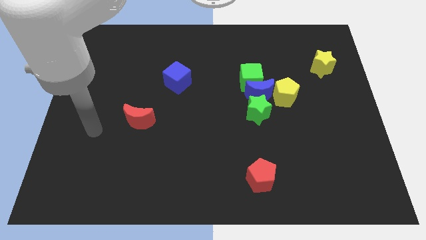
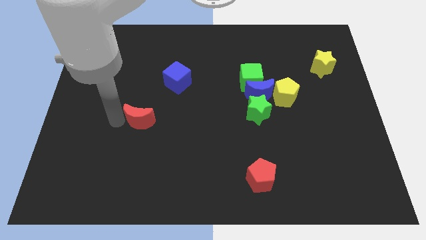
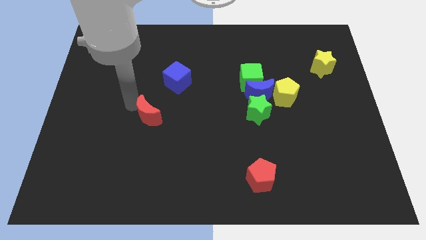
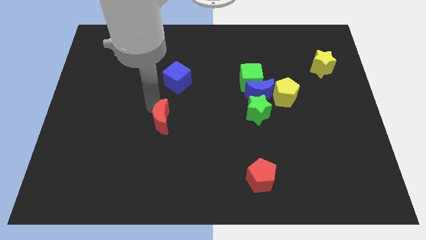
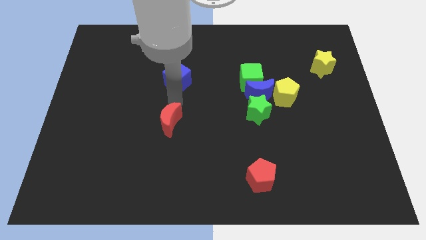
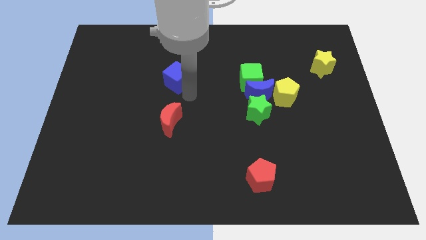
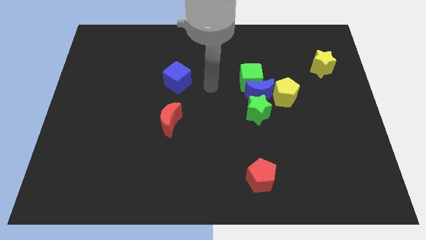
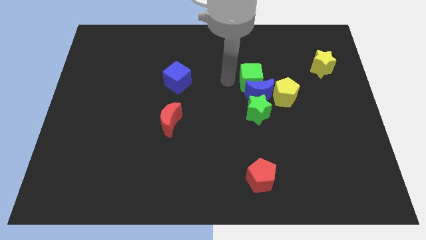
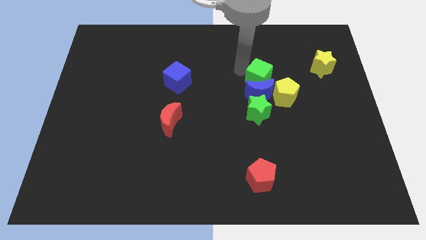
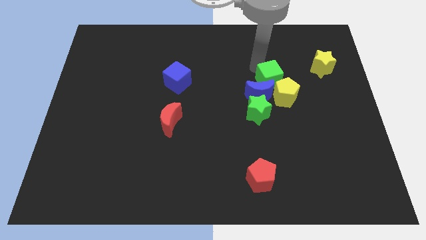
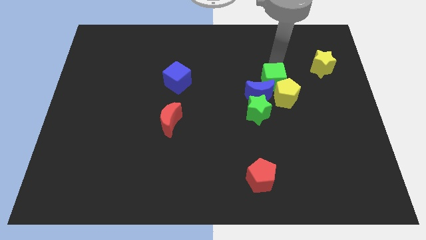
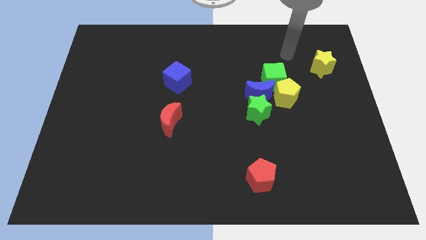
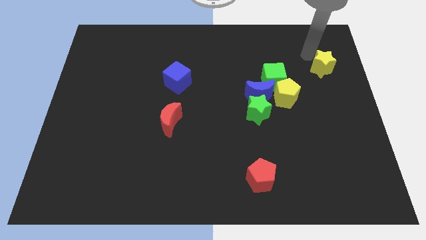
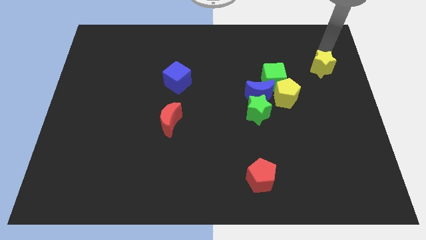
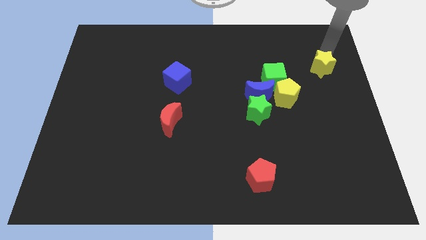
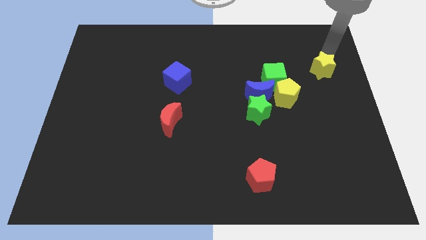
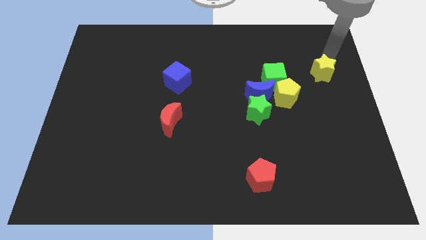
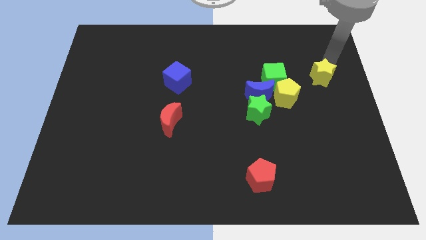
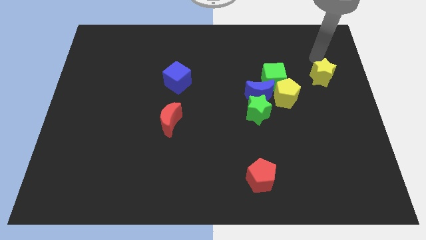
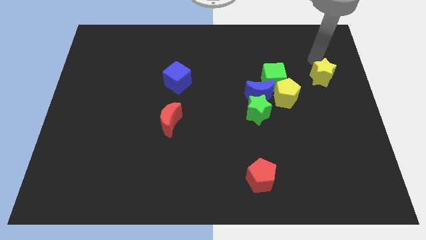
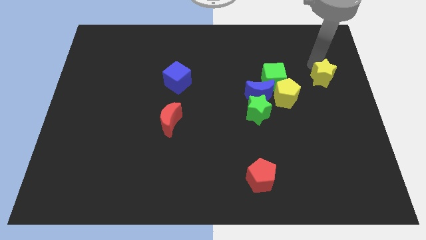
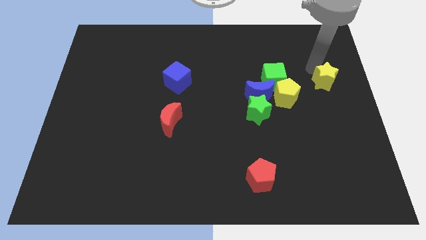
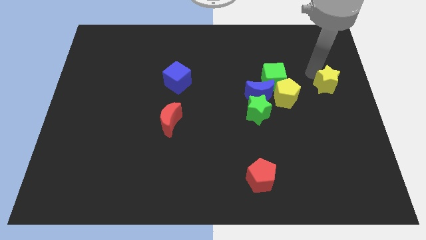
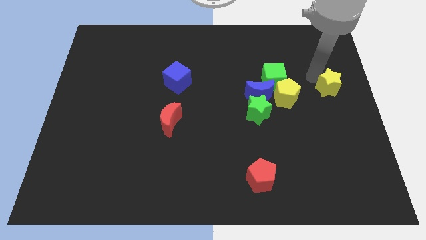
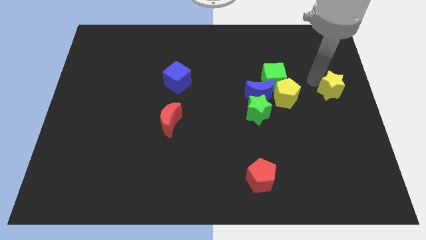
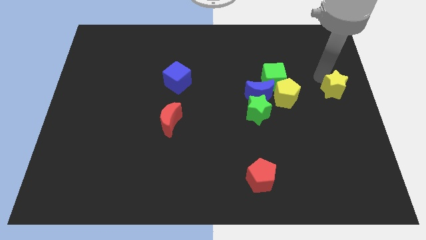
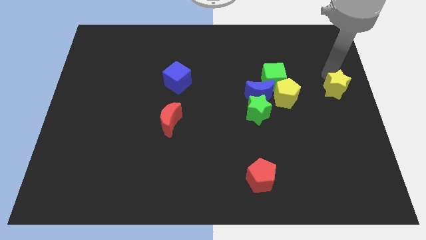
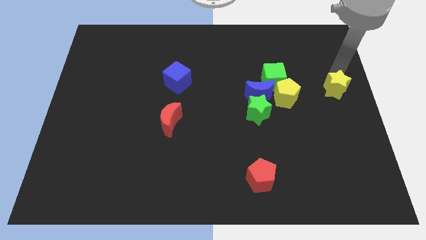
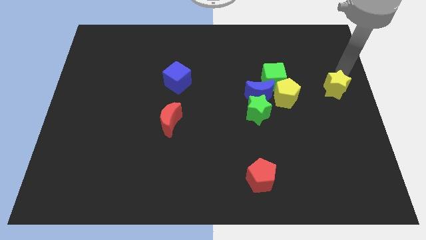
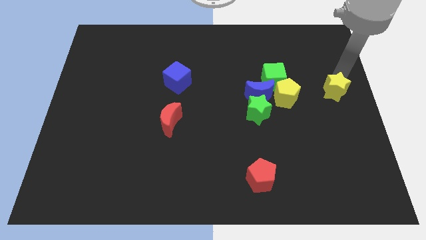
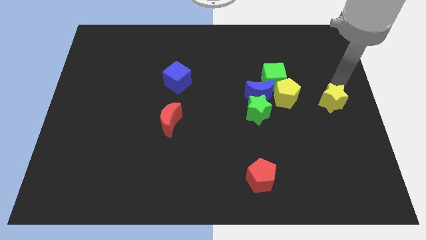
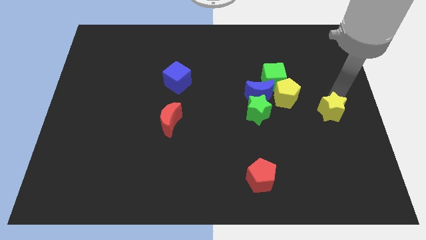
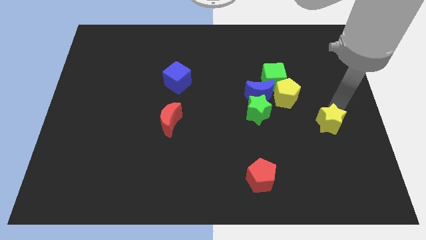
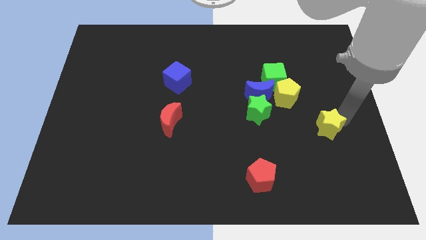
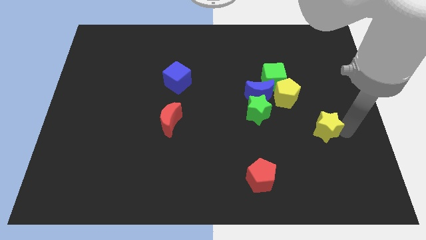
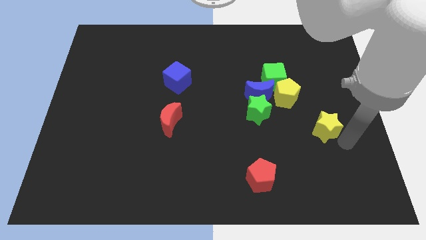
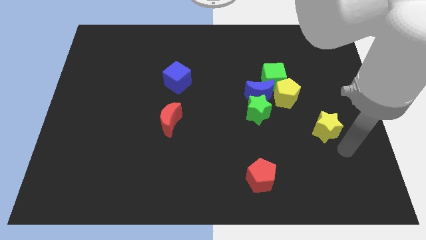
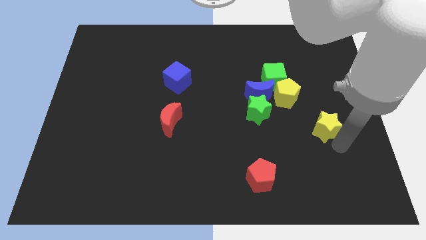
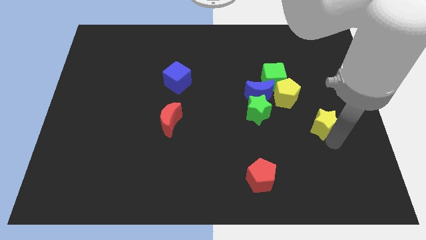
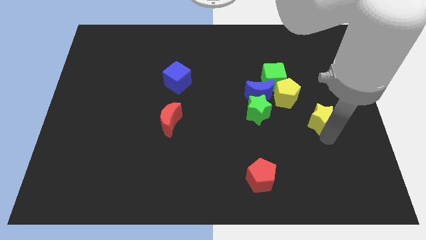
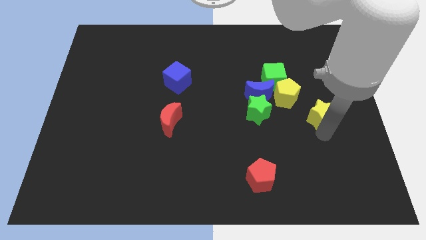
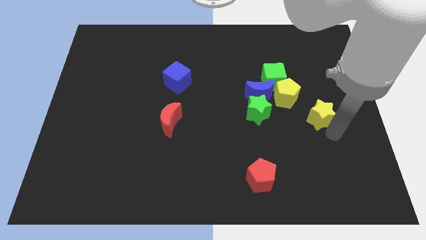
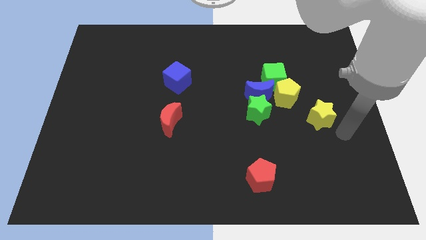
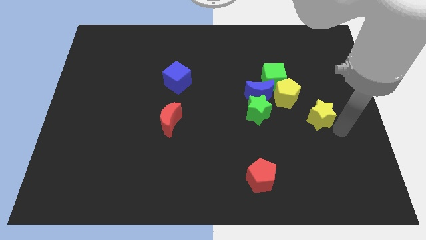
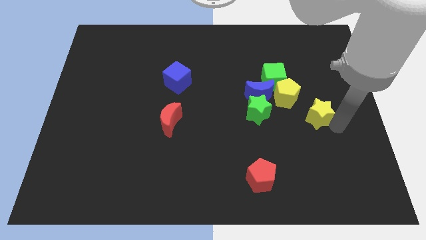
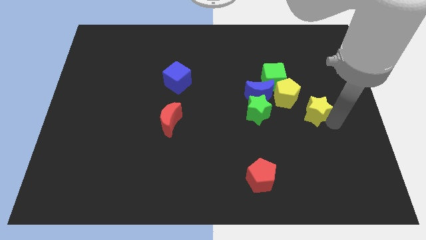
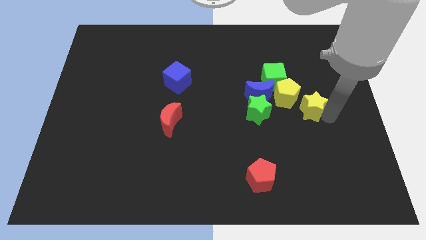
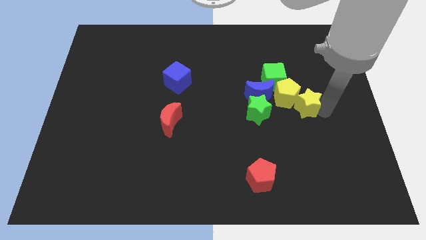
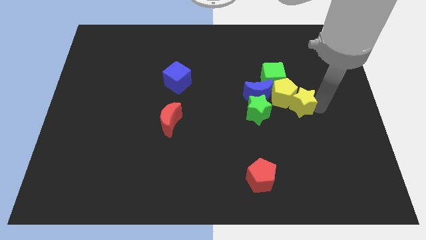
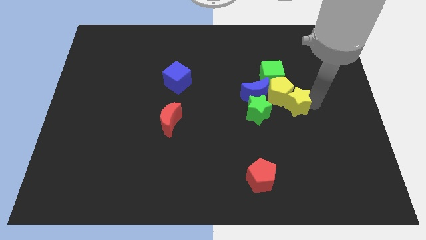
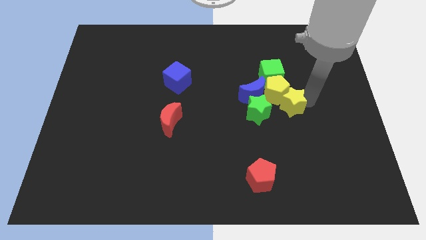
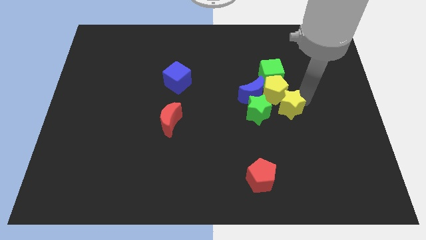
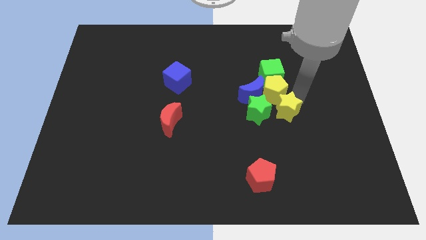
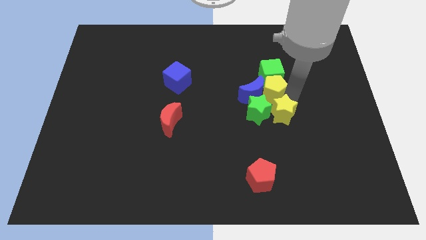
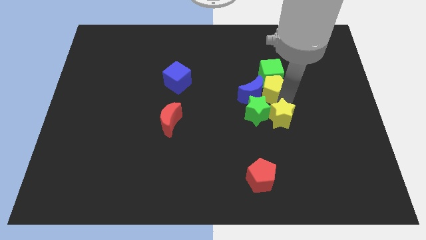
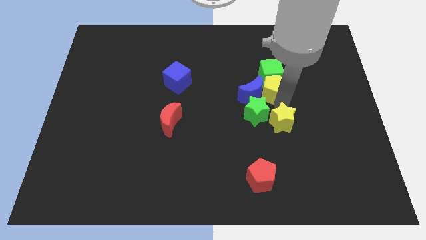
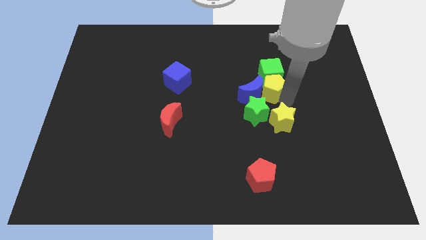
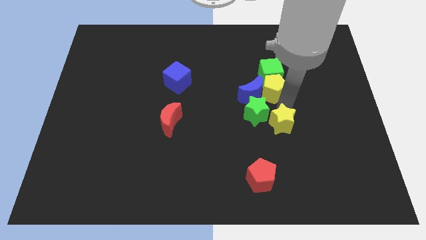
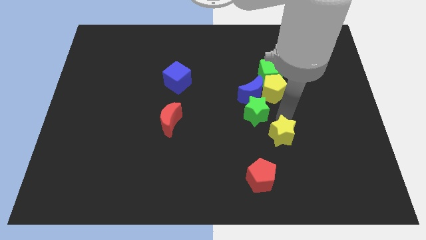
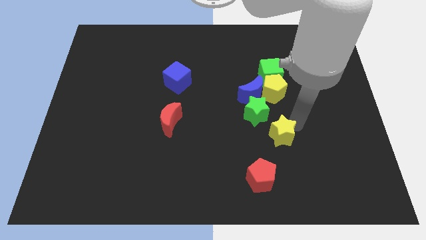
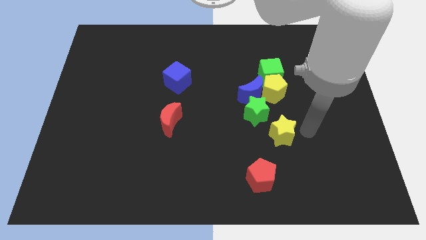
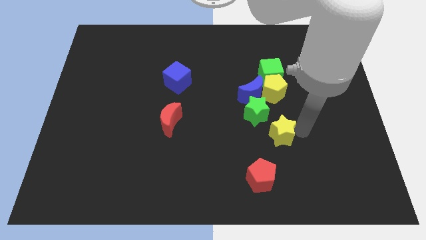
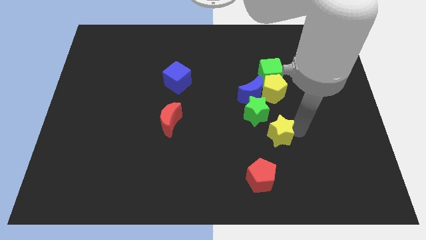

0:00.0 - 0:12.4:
move the yellow star to the top side of the red pentagon

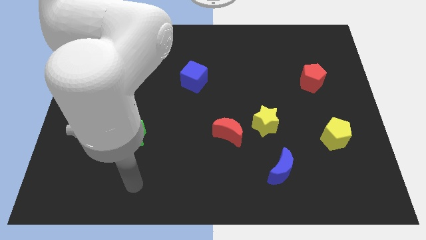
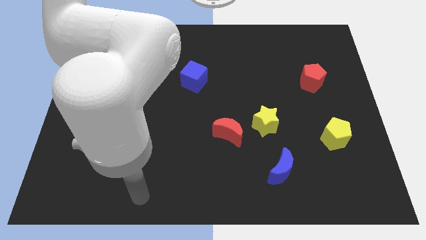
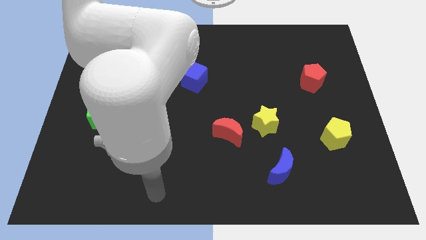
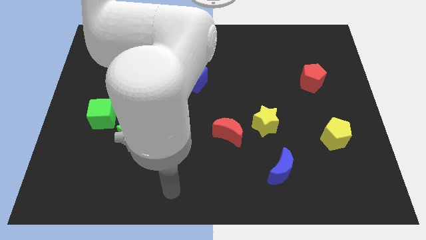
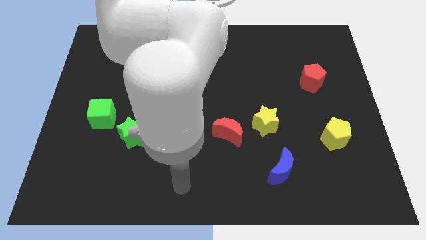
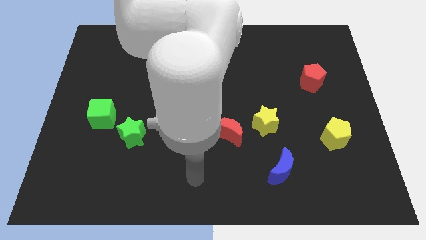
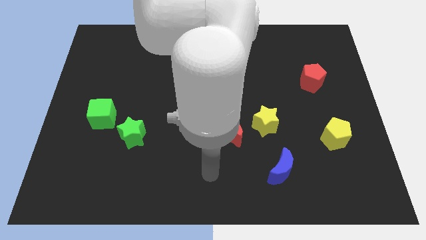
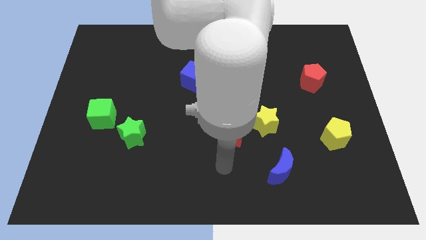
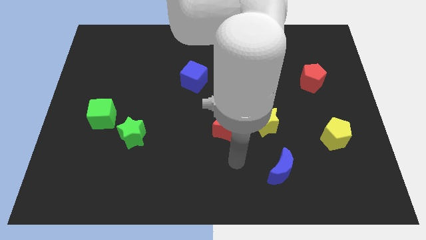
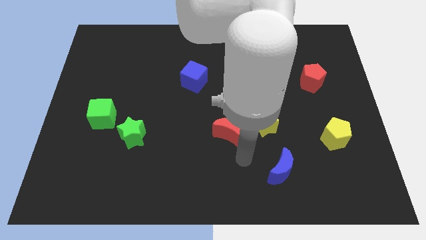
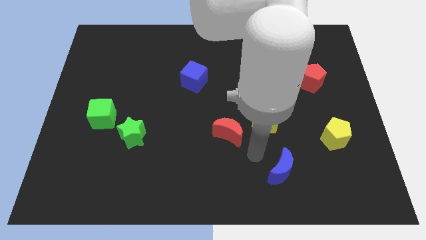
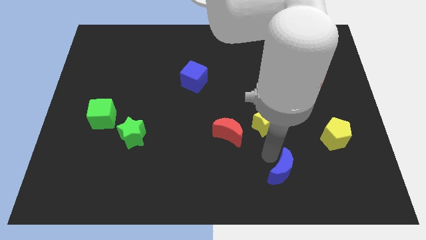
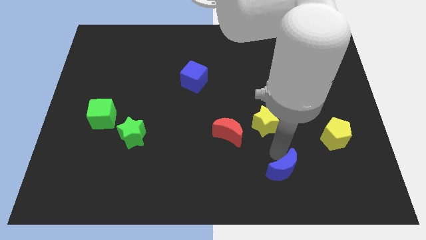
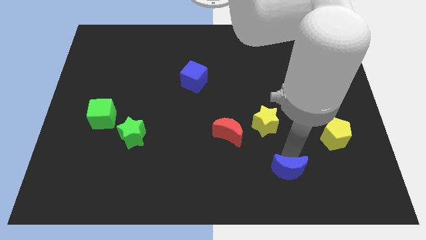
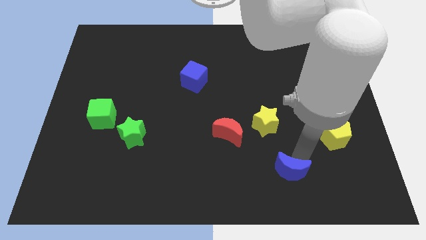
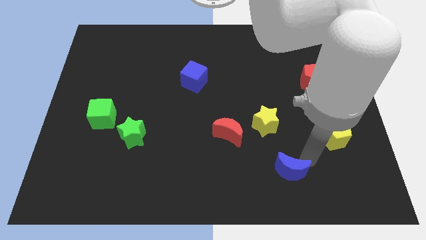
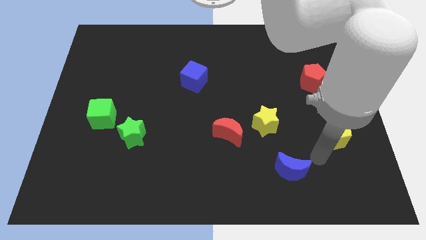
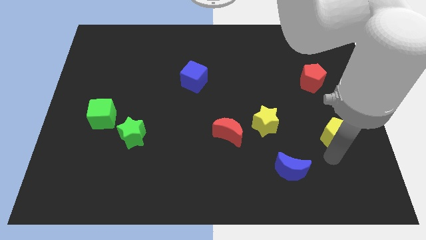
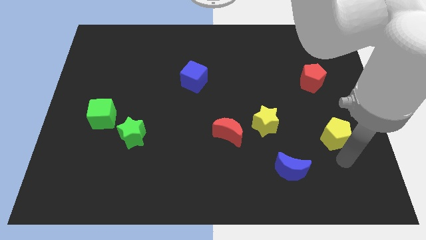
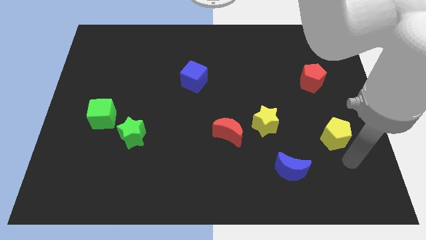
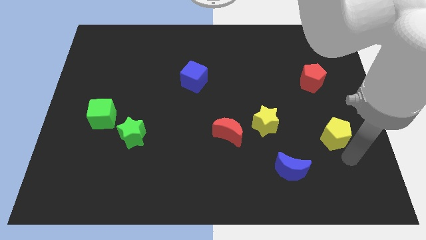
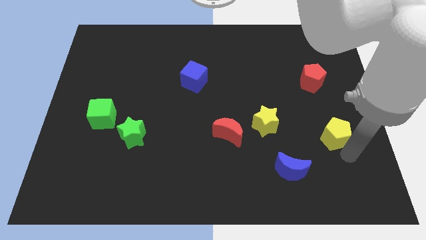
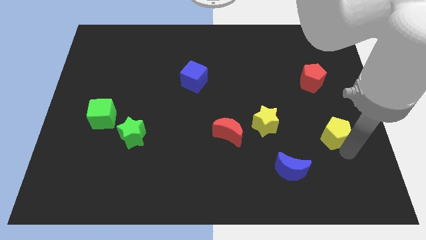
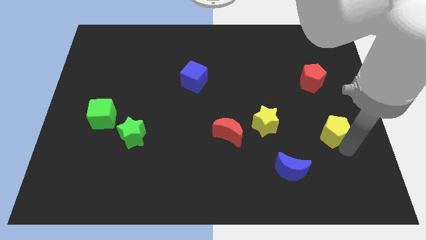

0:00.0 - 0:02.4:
move the yellow pentagon to the bottom side of the red pentagon
